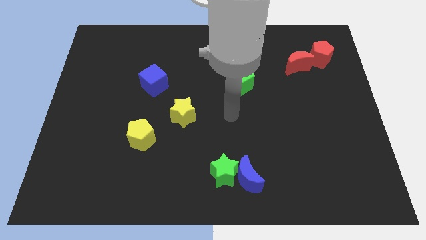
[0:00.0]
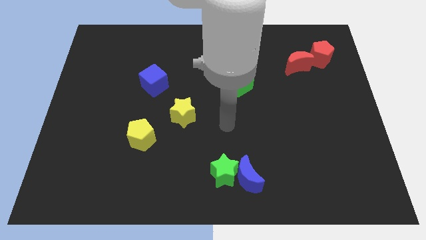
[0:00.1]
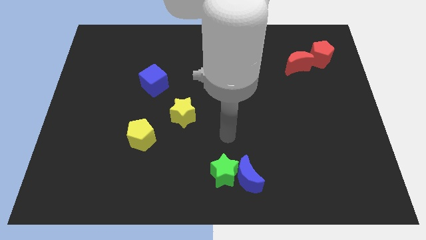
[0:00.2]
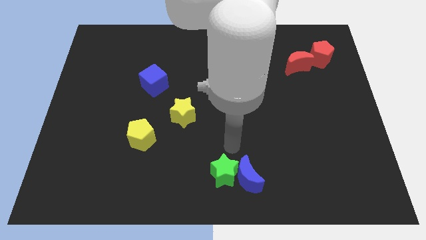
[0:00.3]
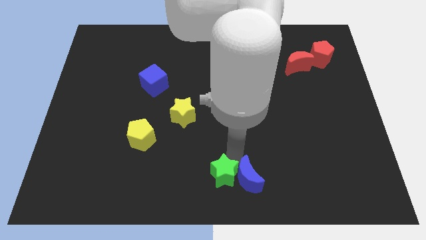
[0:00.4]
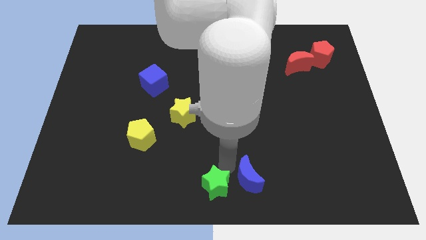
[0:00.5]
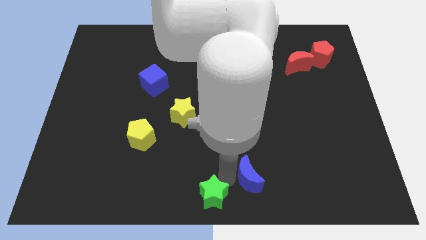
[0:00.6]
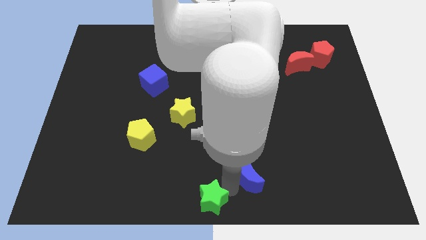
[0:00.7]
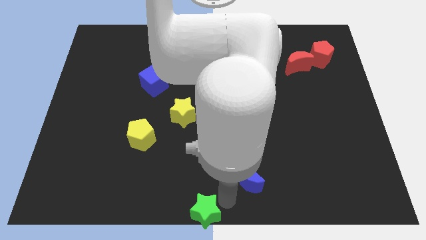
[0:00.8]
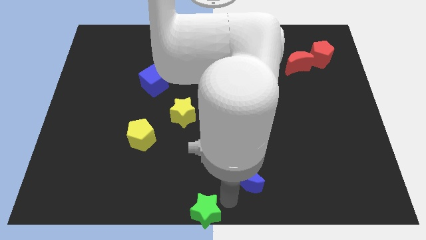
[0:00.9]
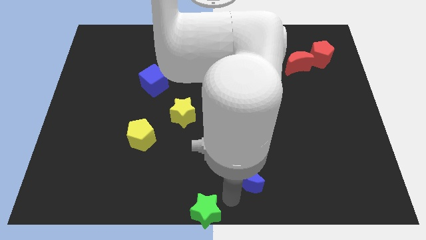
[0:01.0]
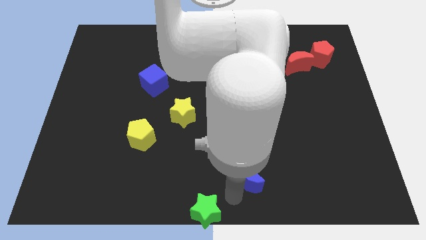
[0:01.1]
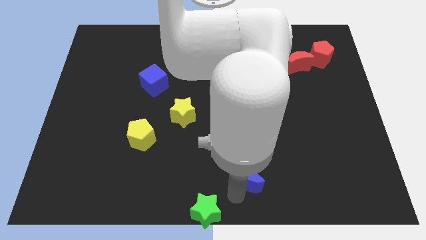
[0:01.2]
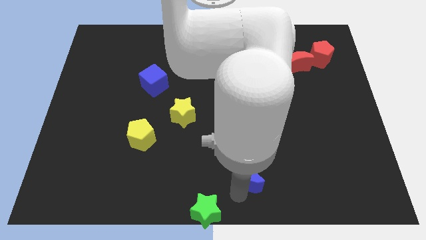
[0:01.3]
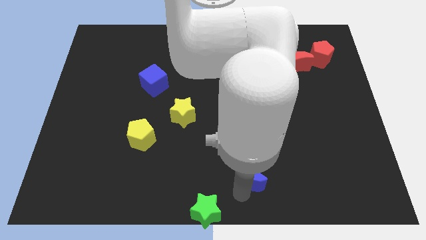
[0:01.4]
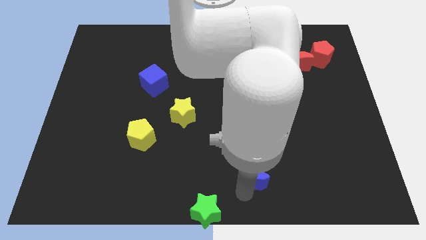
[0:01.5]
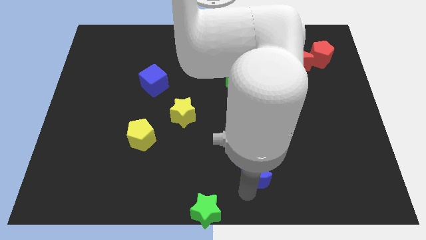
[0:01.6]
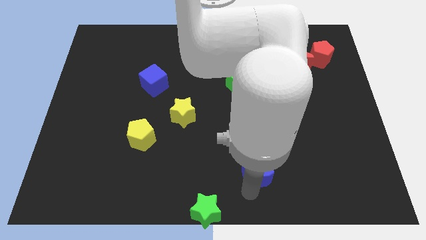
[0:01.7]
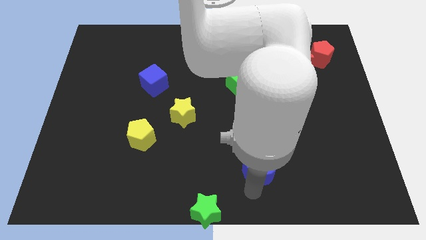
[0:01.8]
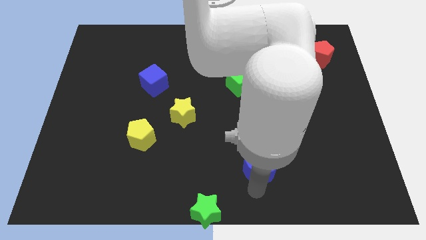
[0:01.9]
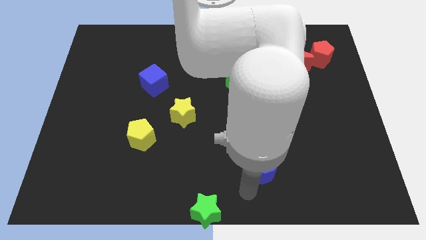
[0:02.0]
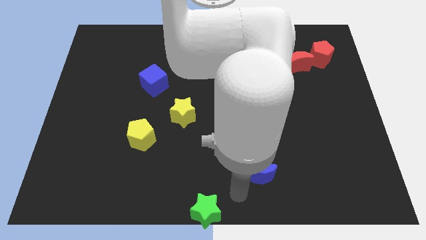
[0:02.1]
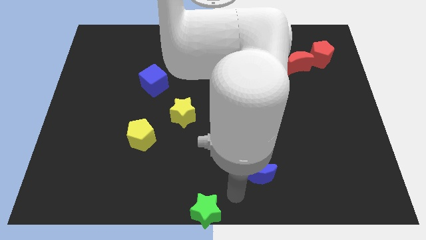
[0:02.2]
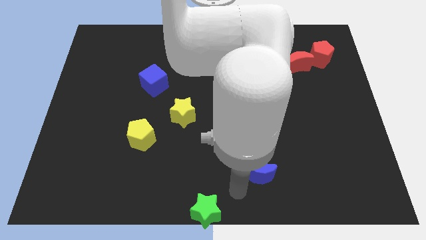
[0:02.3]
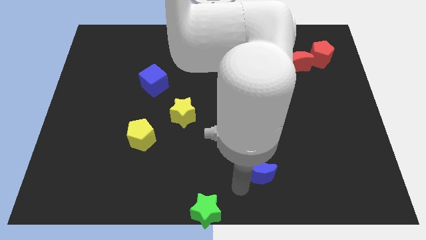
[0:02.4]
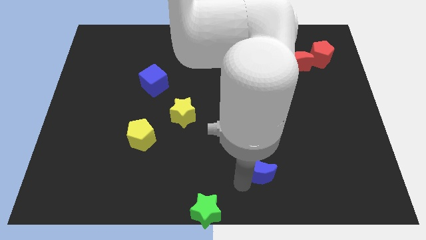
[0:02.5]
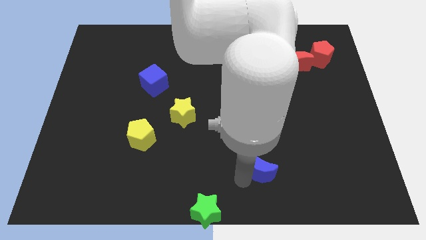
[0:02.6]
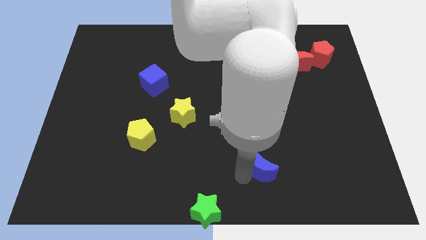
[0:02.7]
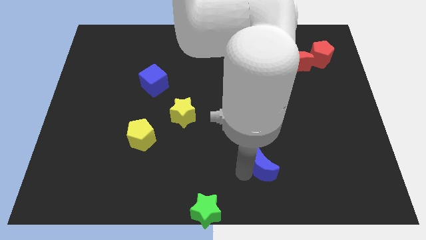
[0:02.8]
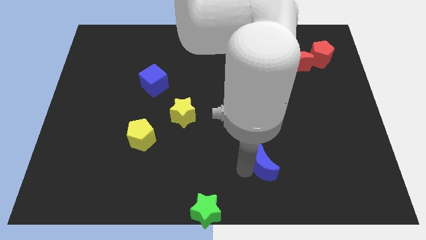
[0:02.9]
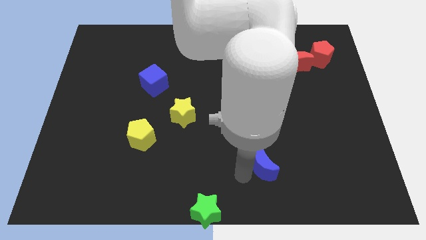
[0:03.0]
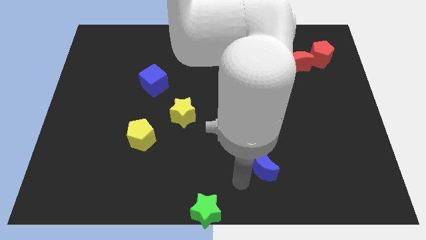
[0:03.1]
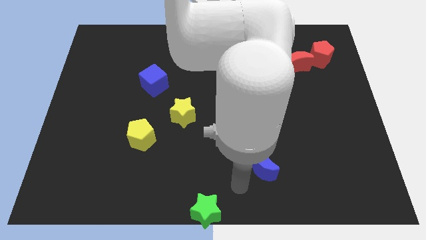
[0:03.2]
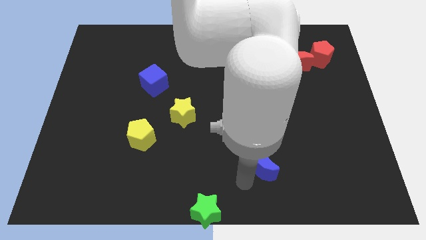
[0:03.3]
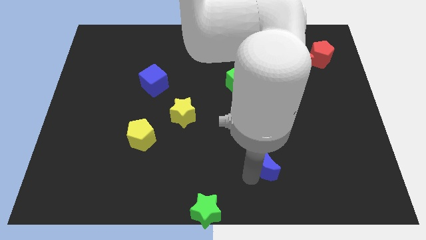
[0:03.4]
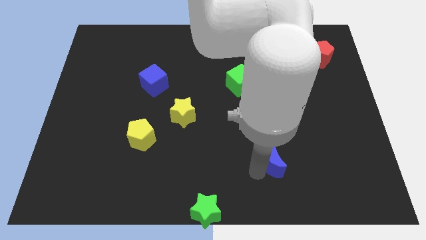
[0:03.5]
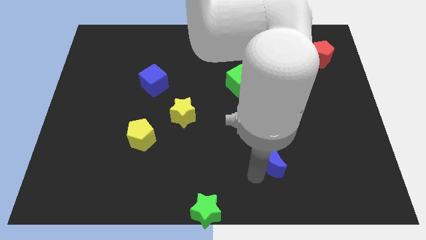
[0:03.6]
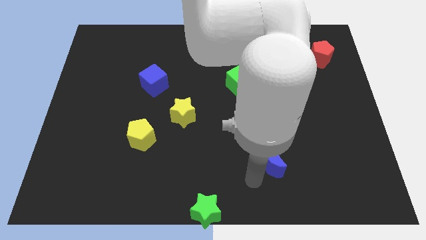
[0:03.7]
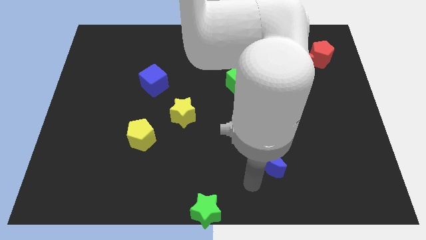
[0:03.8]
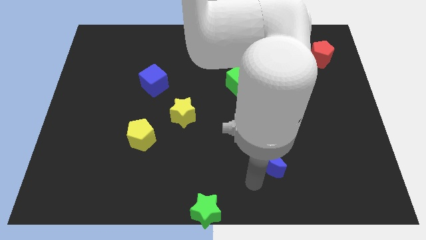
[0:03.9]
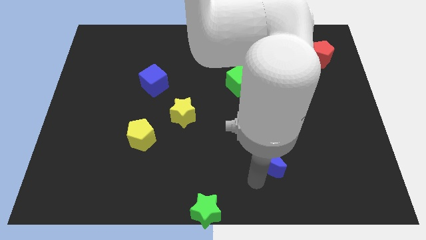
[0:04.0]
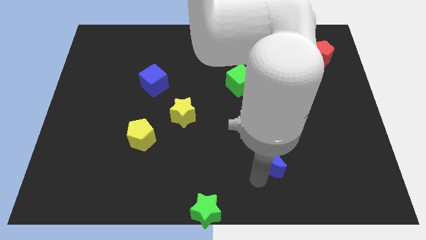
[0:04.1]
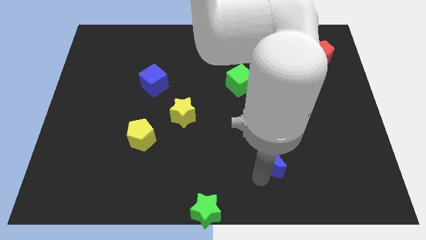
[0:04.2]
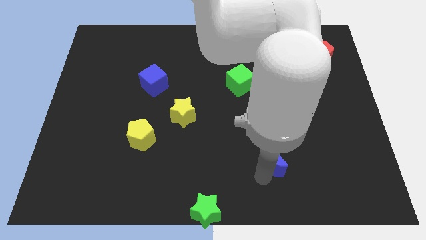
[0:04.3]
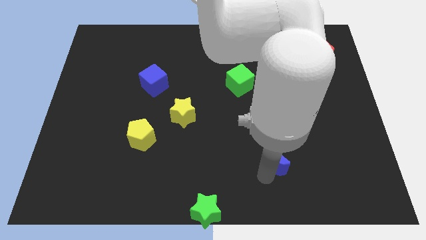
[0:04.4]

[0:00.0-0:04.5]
move the blue moon a little up and right

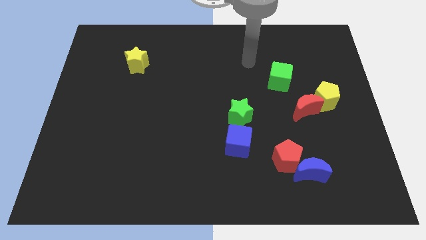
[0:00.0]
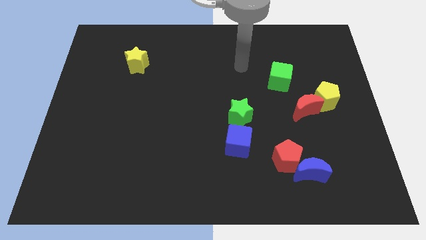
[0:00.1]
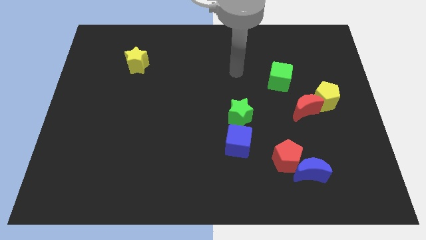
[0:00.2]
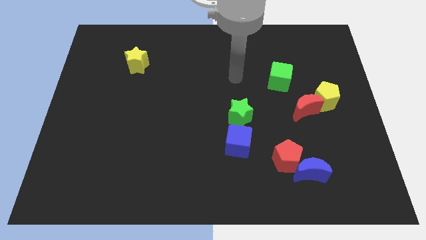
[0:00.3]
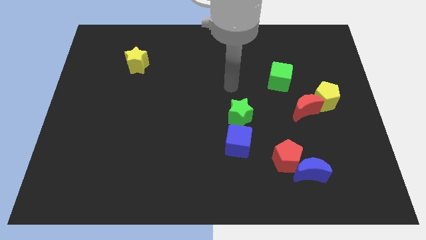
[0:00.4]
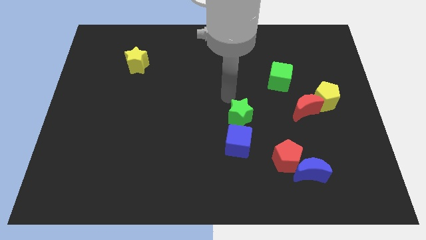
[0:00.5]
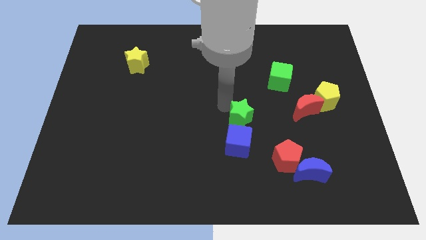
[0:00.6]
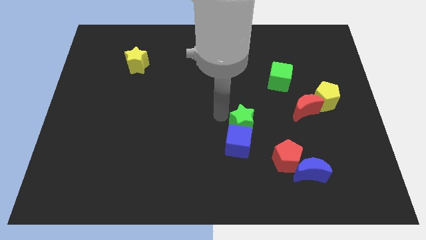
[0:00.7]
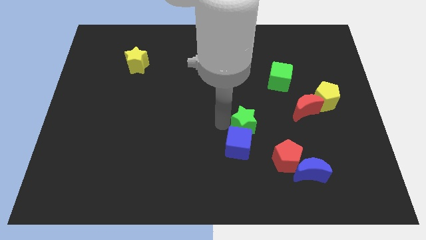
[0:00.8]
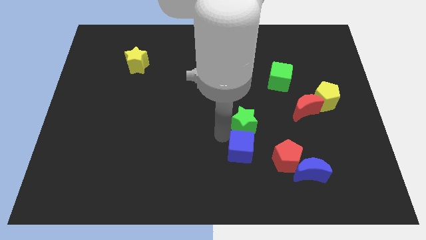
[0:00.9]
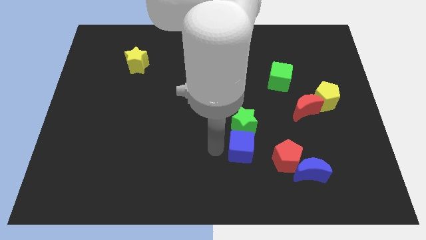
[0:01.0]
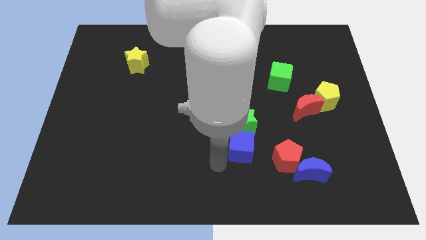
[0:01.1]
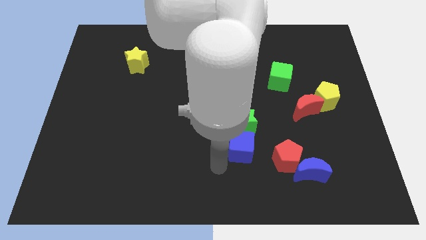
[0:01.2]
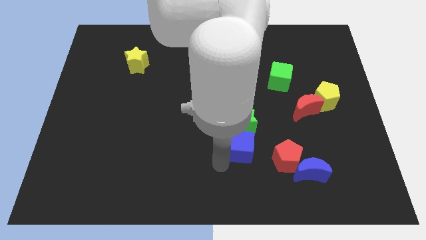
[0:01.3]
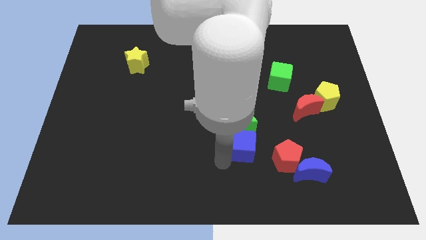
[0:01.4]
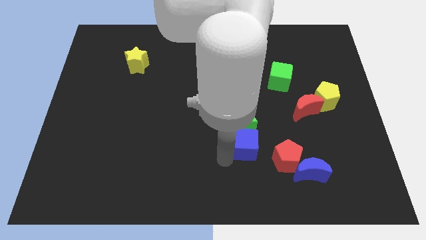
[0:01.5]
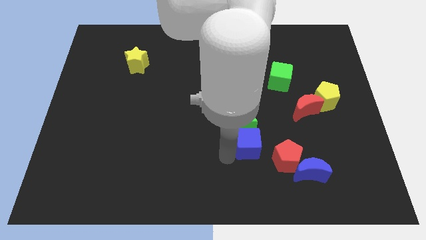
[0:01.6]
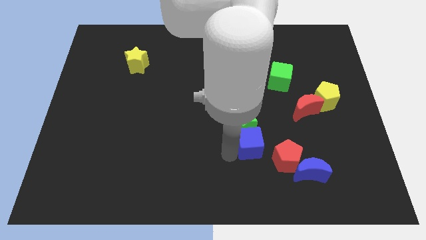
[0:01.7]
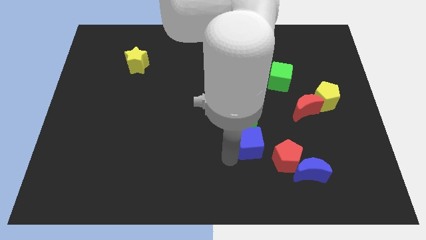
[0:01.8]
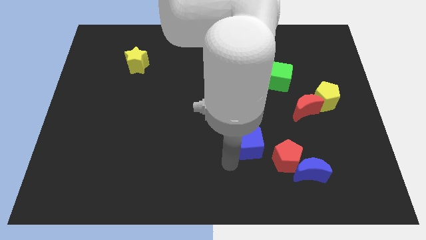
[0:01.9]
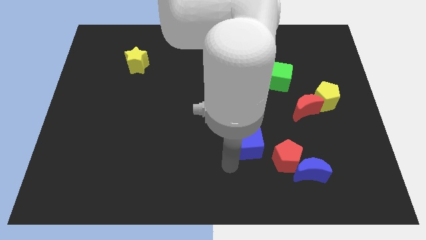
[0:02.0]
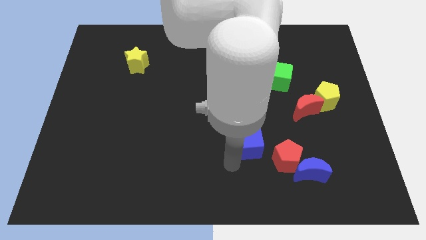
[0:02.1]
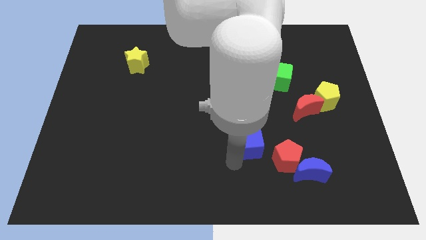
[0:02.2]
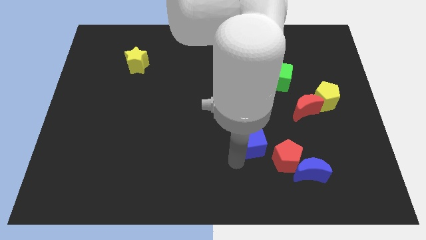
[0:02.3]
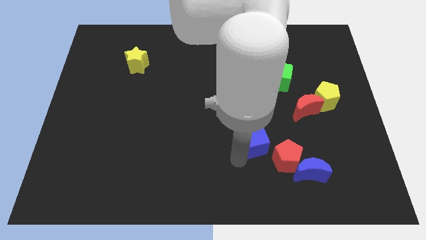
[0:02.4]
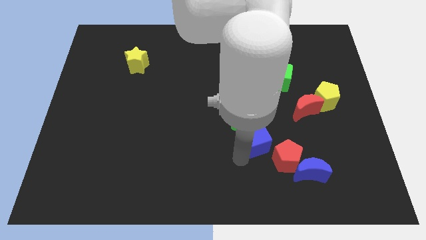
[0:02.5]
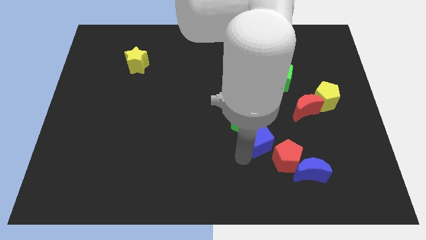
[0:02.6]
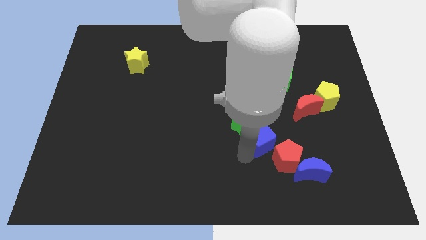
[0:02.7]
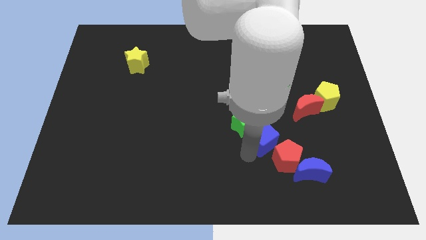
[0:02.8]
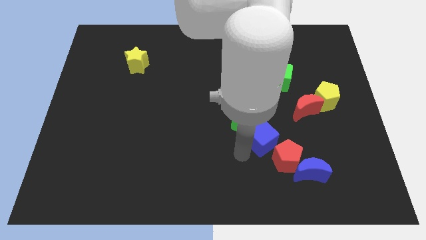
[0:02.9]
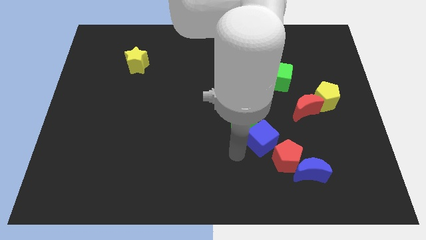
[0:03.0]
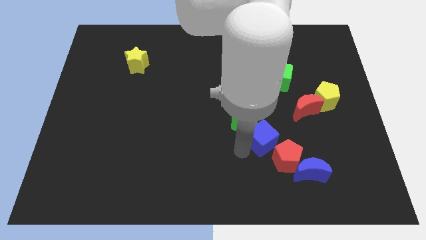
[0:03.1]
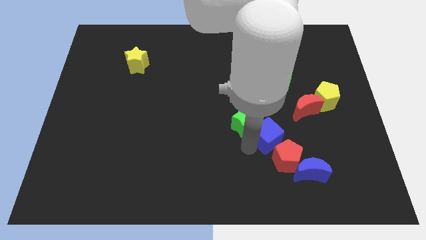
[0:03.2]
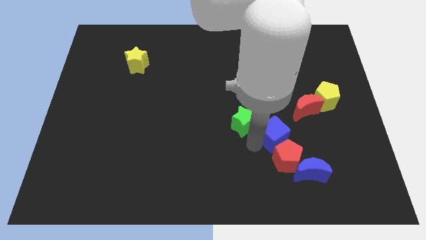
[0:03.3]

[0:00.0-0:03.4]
push the blue cube somewhat to the right
